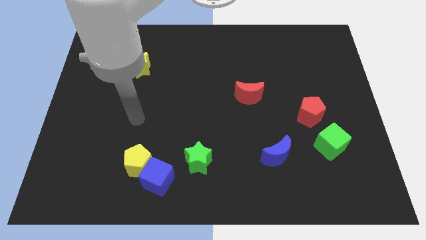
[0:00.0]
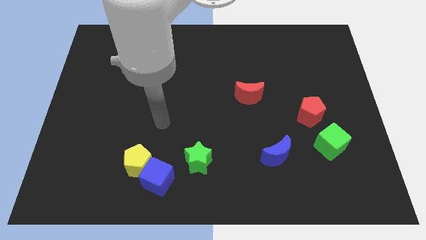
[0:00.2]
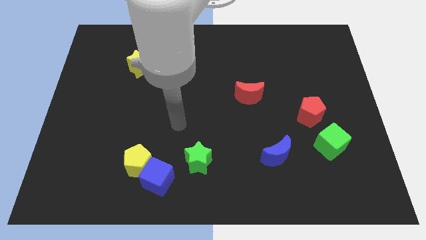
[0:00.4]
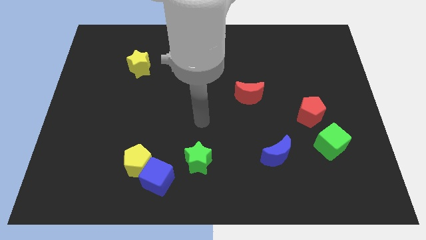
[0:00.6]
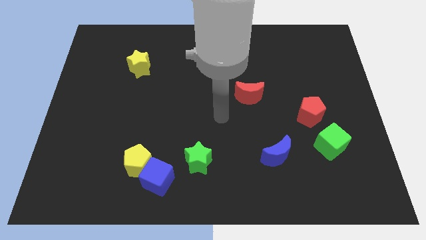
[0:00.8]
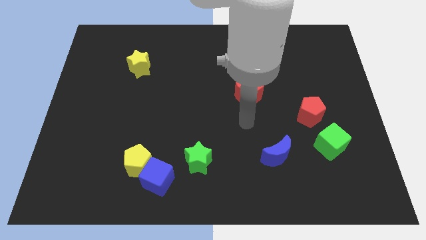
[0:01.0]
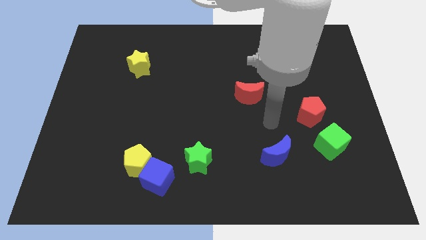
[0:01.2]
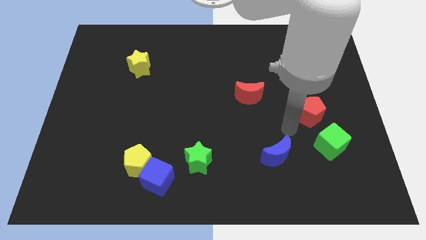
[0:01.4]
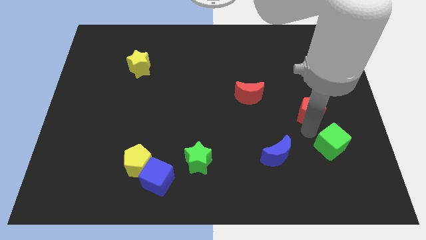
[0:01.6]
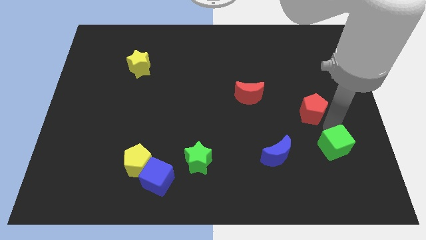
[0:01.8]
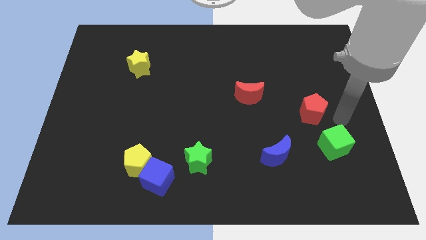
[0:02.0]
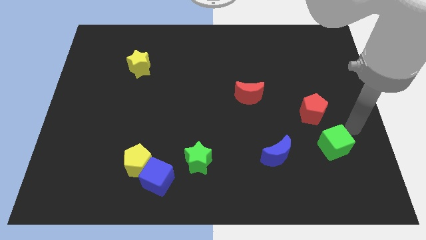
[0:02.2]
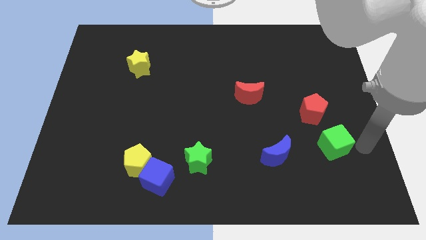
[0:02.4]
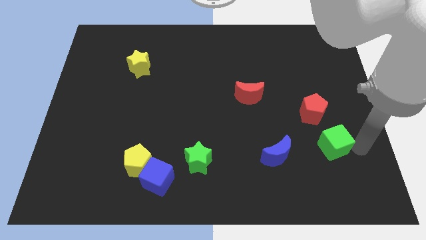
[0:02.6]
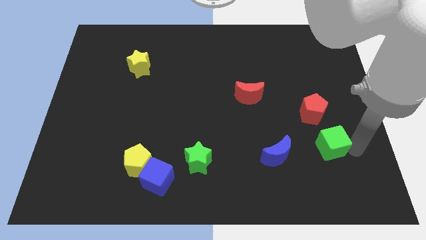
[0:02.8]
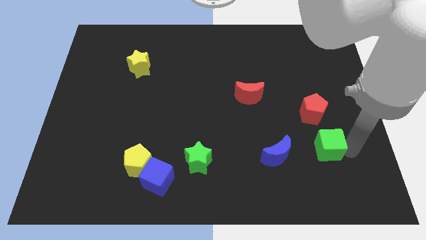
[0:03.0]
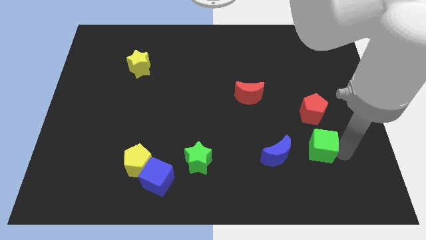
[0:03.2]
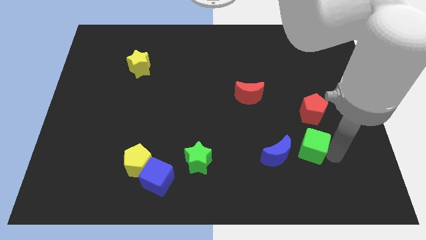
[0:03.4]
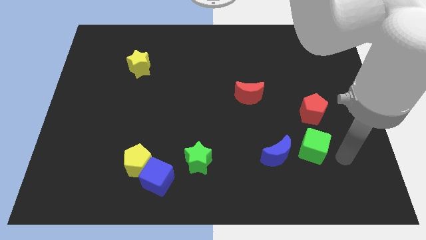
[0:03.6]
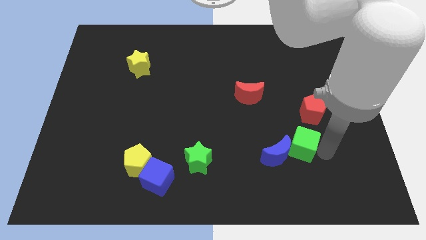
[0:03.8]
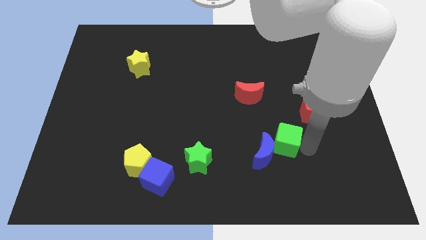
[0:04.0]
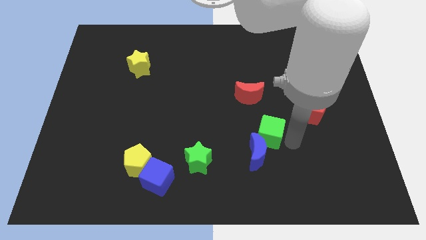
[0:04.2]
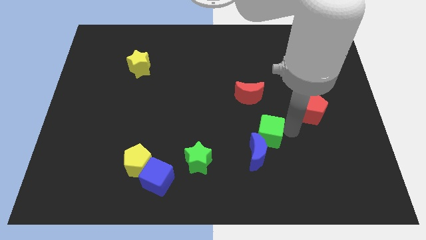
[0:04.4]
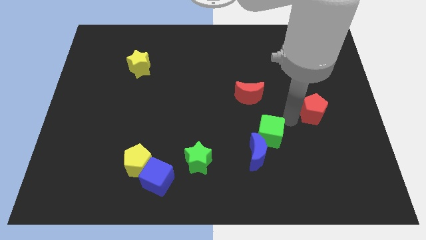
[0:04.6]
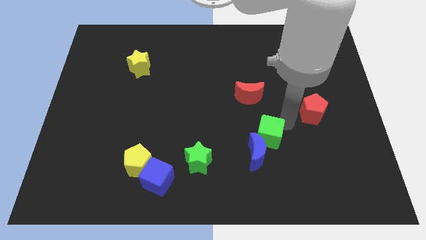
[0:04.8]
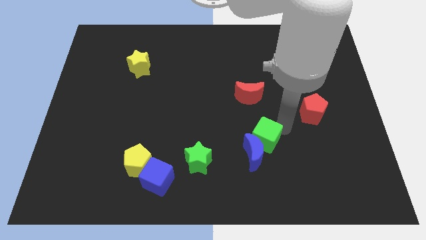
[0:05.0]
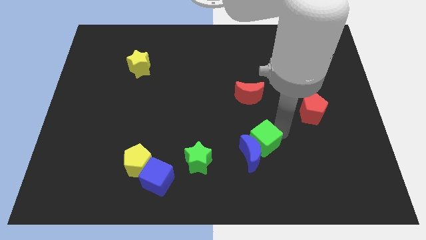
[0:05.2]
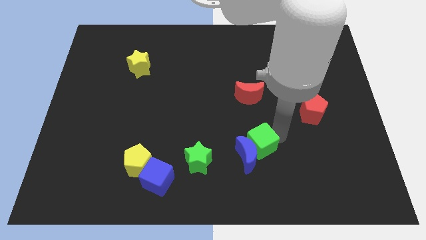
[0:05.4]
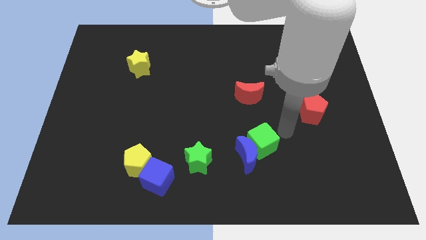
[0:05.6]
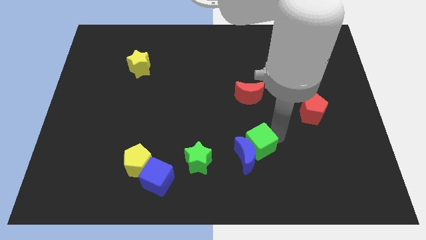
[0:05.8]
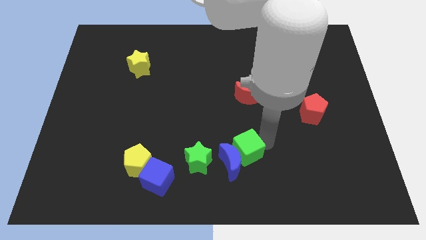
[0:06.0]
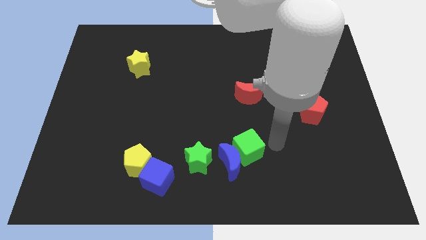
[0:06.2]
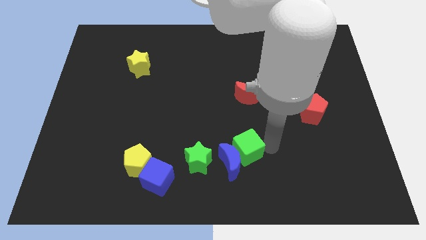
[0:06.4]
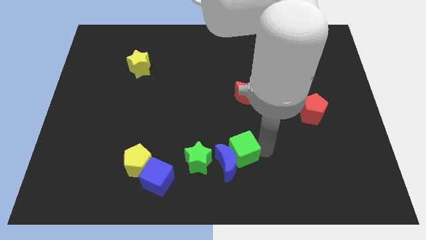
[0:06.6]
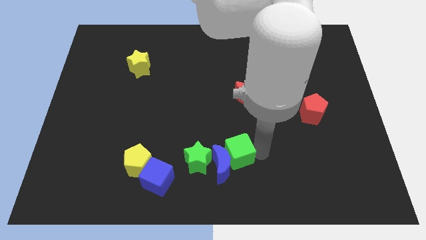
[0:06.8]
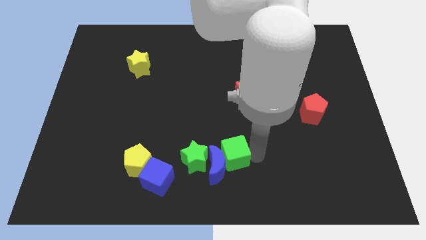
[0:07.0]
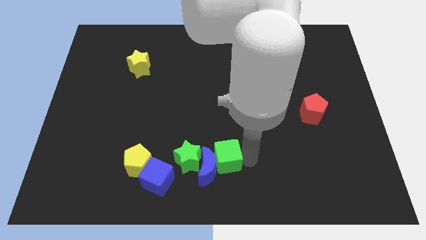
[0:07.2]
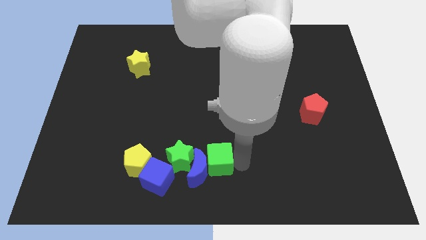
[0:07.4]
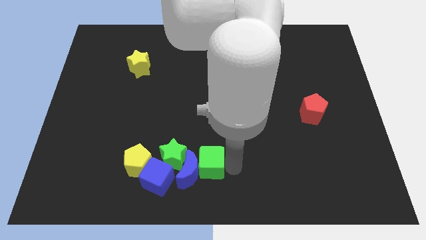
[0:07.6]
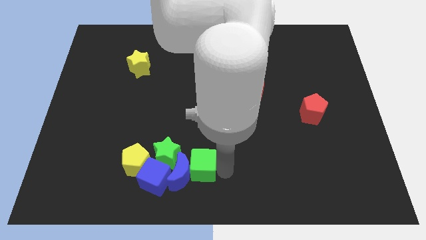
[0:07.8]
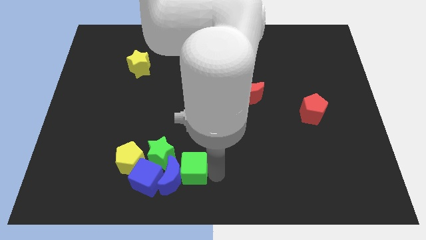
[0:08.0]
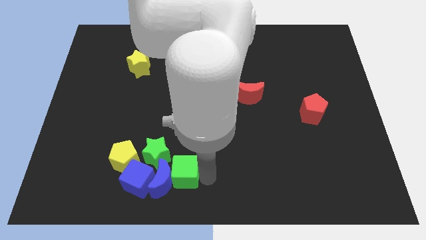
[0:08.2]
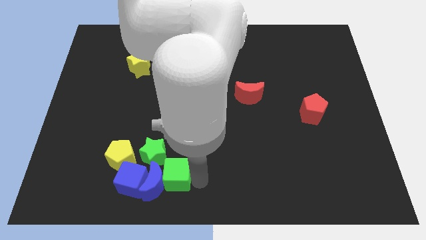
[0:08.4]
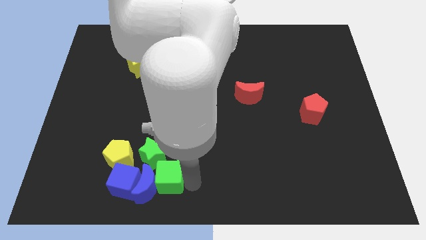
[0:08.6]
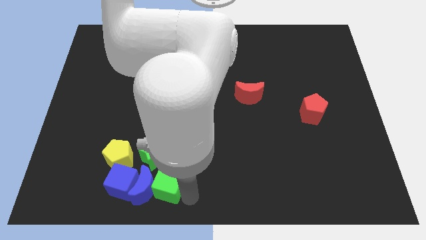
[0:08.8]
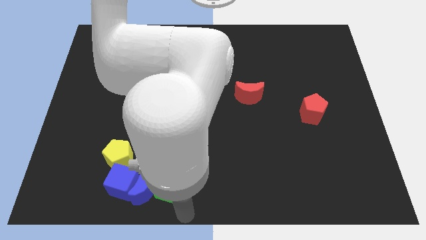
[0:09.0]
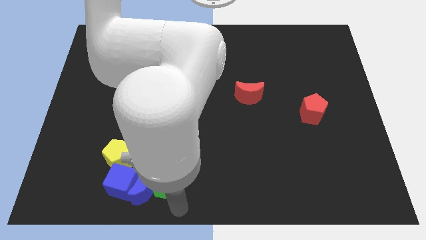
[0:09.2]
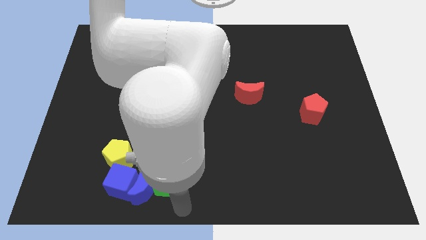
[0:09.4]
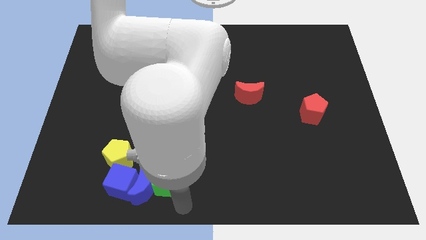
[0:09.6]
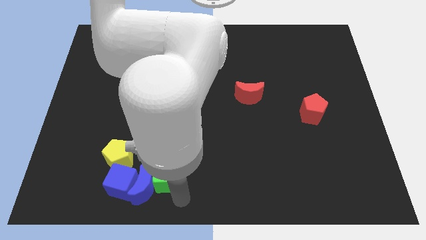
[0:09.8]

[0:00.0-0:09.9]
put the green cube to the green star

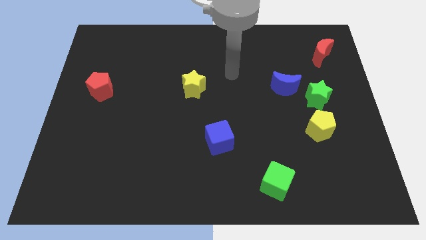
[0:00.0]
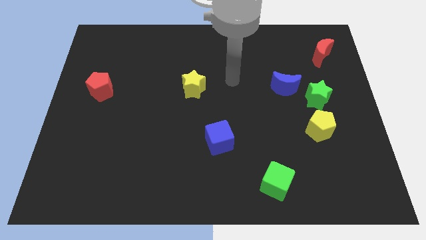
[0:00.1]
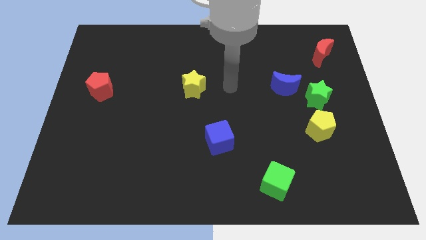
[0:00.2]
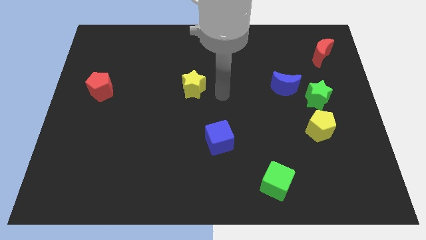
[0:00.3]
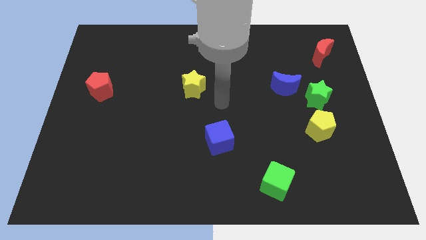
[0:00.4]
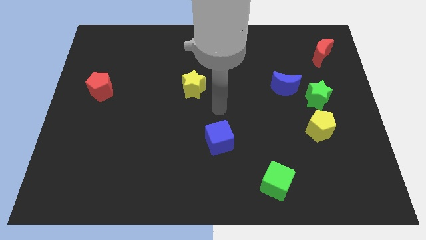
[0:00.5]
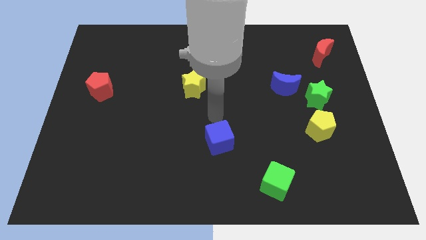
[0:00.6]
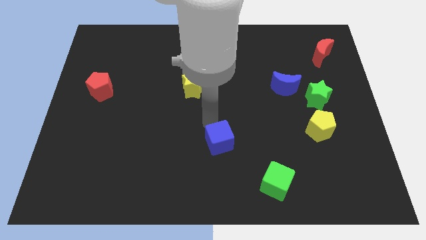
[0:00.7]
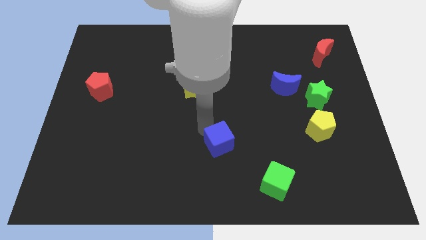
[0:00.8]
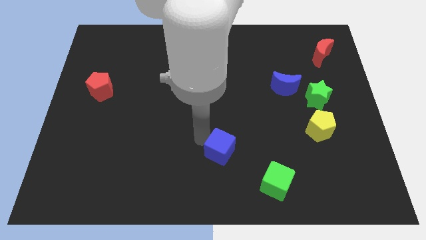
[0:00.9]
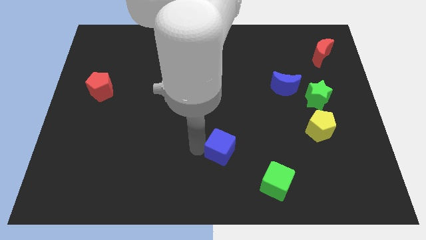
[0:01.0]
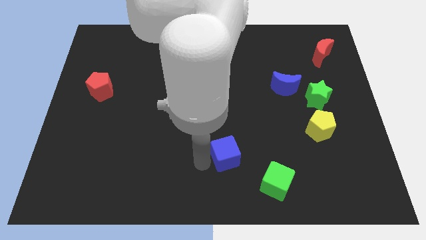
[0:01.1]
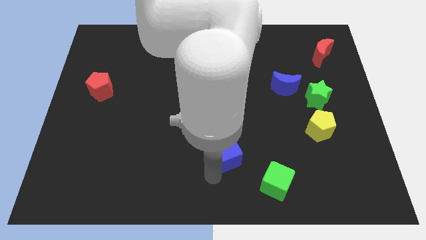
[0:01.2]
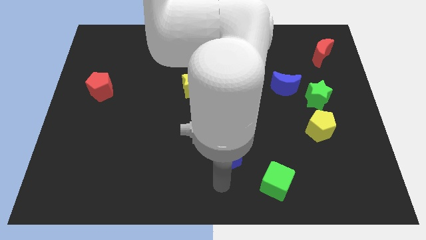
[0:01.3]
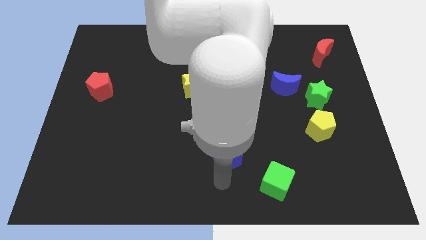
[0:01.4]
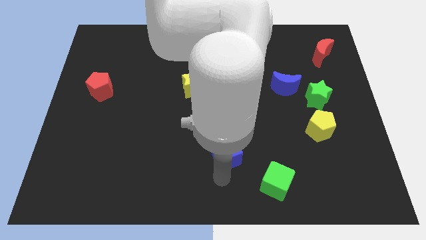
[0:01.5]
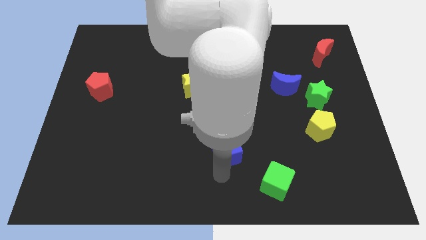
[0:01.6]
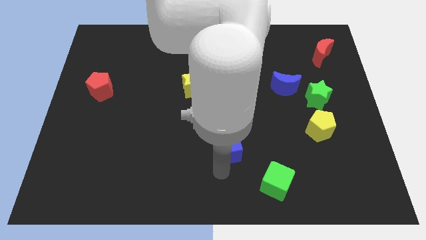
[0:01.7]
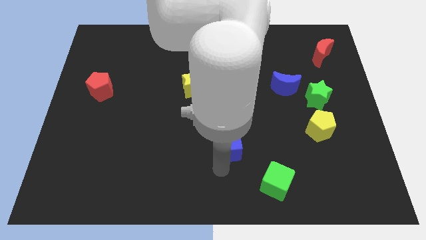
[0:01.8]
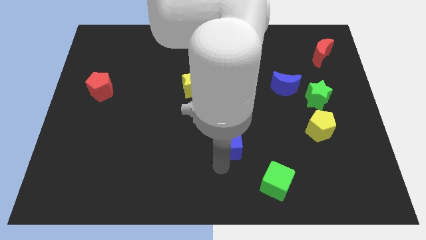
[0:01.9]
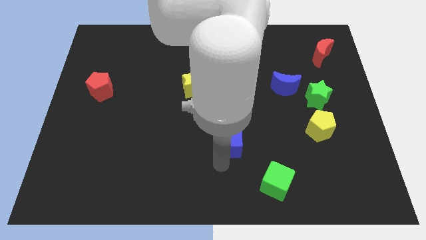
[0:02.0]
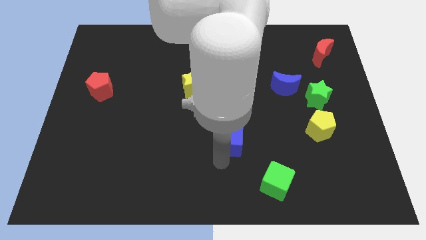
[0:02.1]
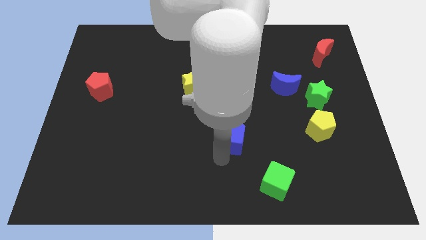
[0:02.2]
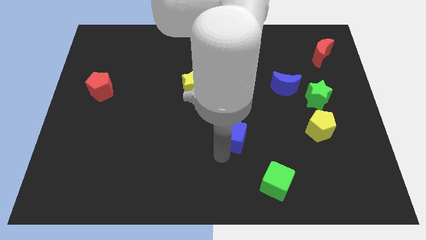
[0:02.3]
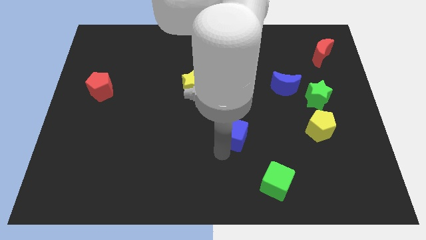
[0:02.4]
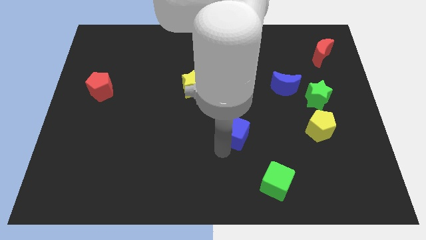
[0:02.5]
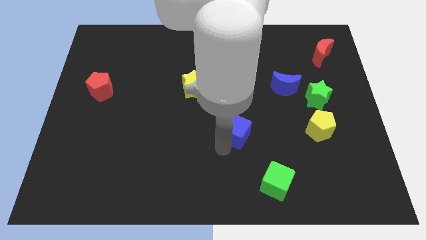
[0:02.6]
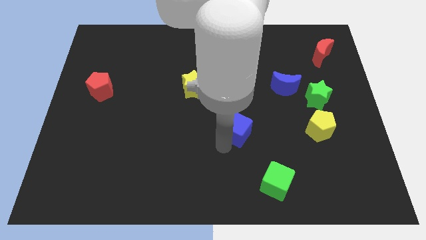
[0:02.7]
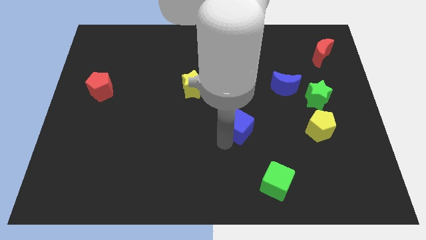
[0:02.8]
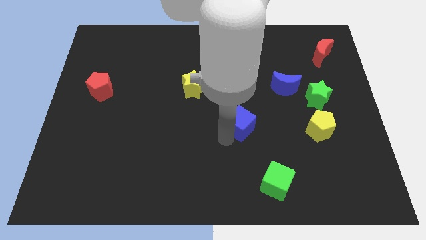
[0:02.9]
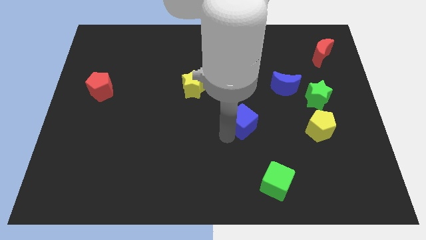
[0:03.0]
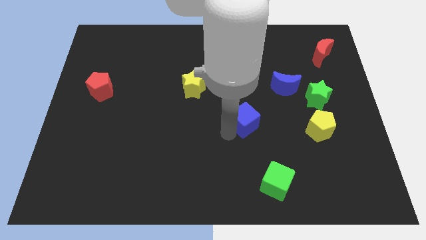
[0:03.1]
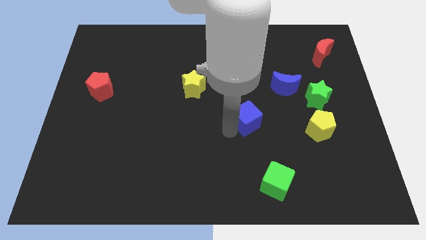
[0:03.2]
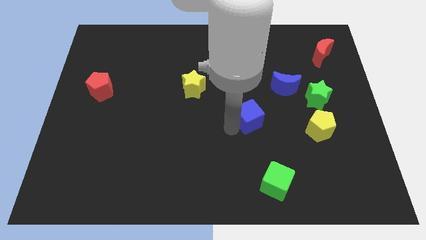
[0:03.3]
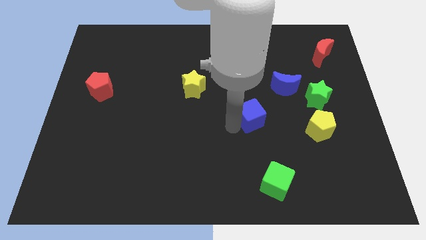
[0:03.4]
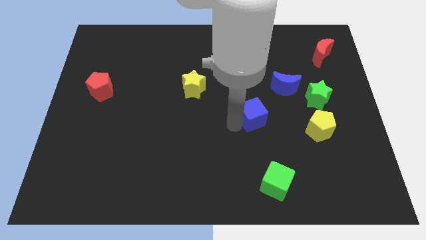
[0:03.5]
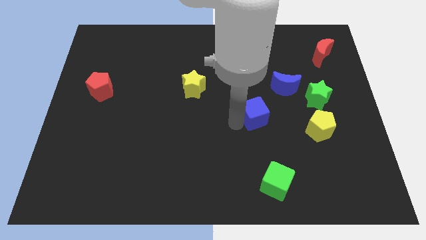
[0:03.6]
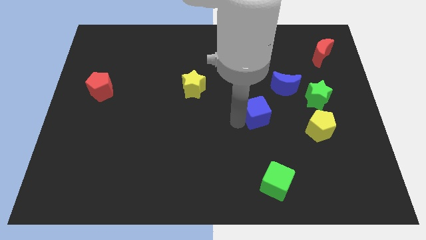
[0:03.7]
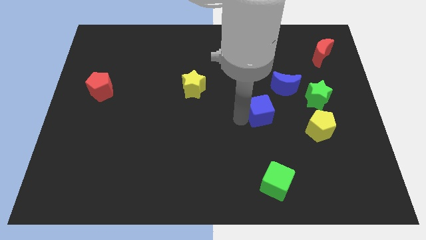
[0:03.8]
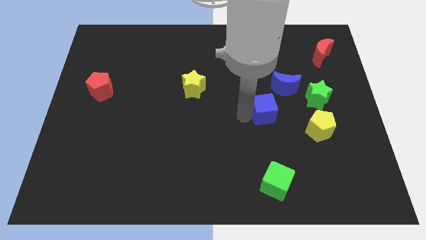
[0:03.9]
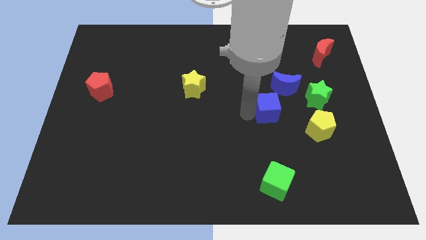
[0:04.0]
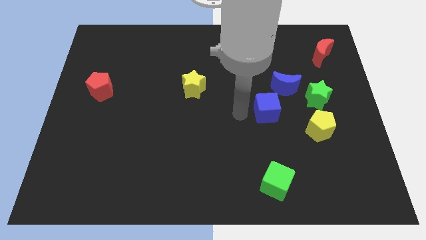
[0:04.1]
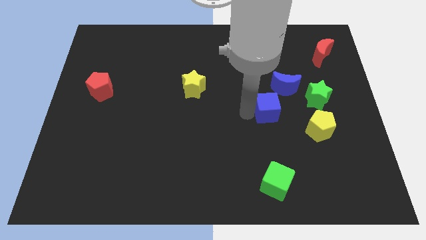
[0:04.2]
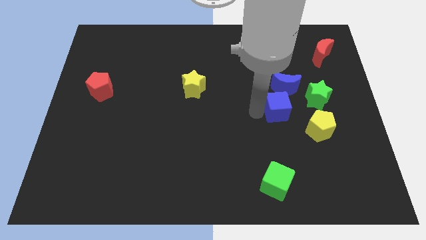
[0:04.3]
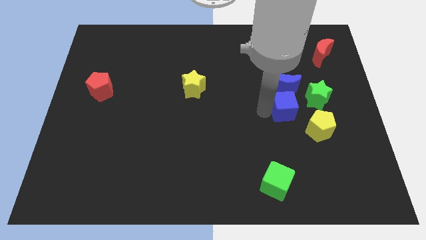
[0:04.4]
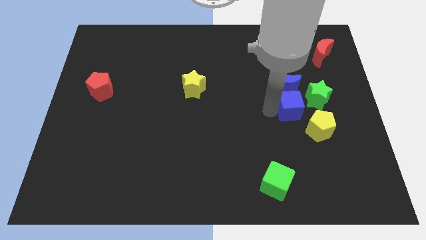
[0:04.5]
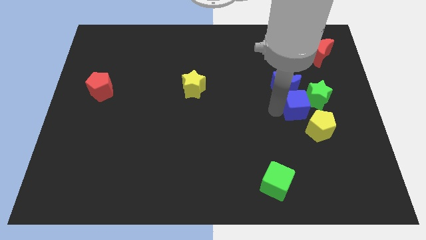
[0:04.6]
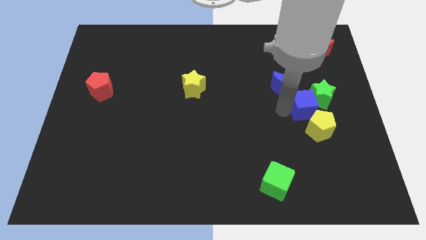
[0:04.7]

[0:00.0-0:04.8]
push the blue cube close to the green star
